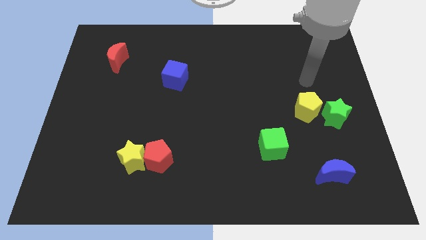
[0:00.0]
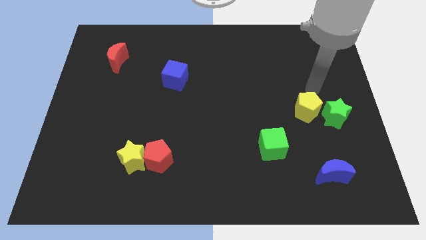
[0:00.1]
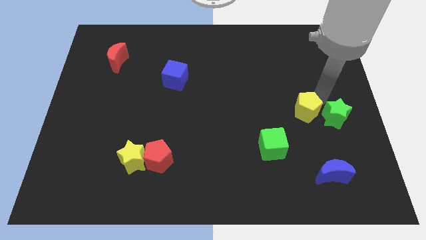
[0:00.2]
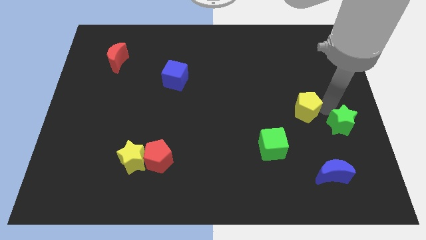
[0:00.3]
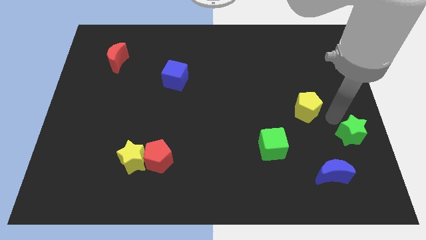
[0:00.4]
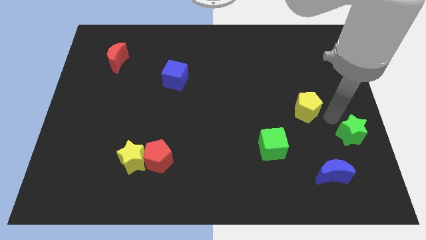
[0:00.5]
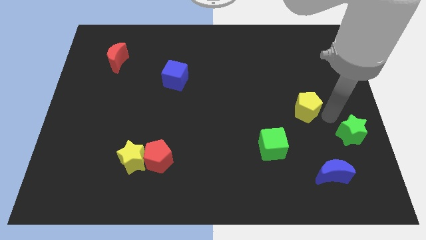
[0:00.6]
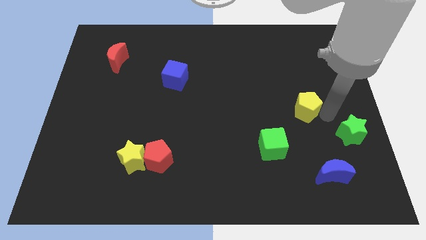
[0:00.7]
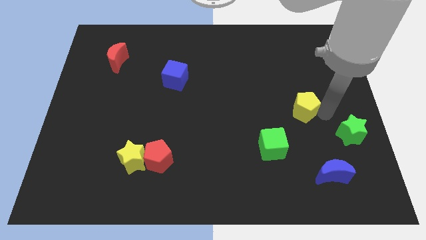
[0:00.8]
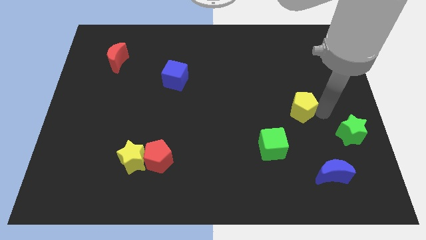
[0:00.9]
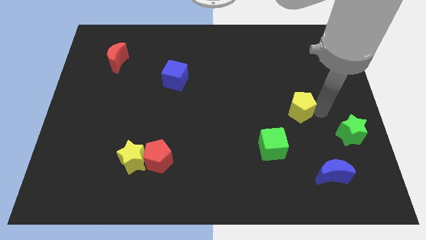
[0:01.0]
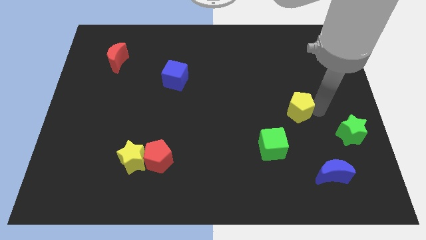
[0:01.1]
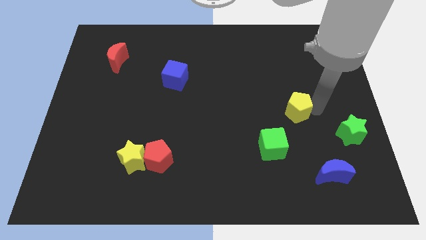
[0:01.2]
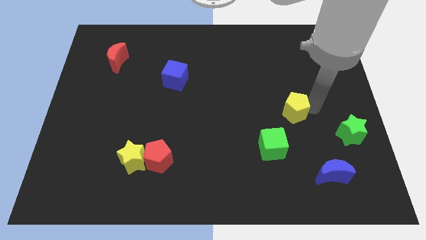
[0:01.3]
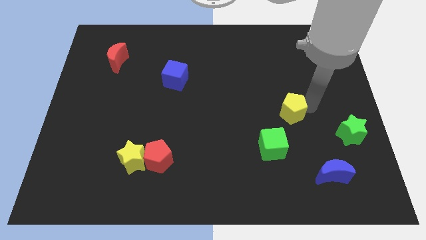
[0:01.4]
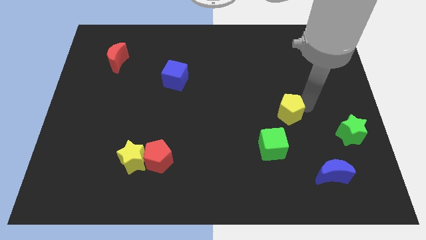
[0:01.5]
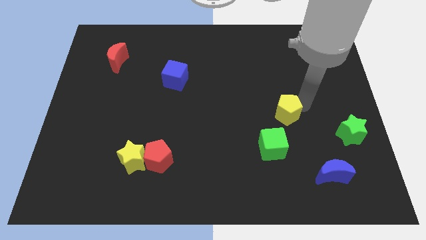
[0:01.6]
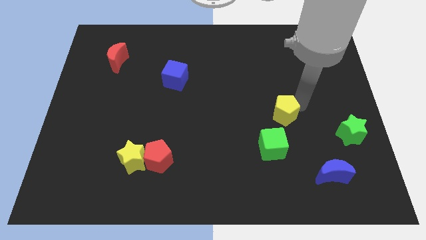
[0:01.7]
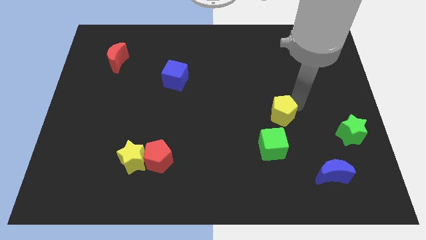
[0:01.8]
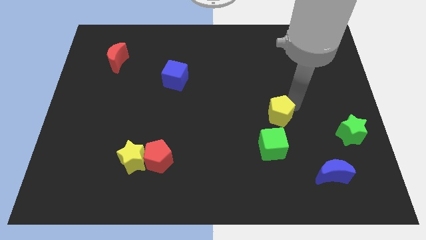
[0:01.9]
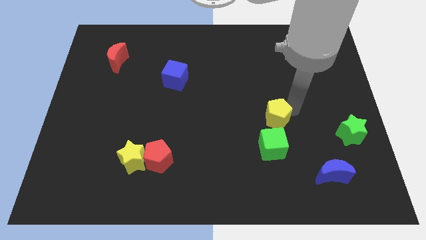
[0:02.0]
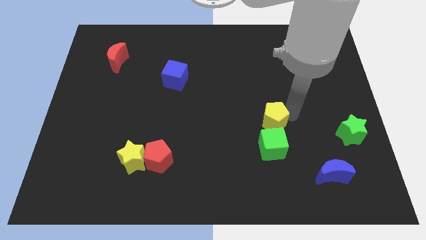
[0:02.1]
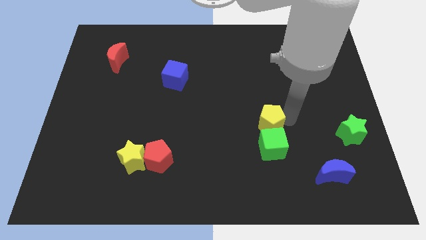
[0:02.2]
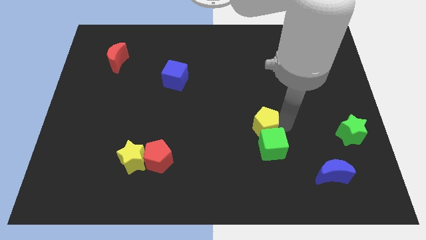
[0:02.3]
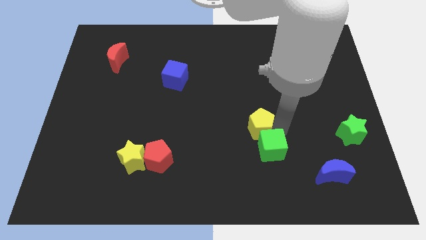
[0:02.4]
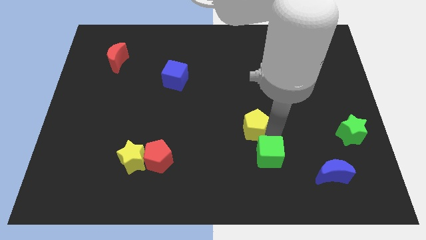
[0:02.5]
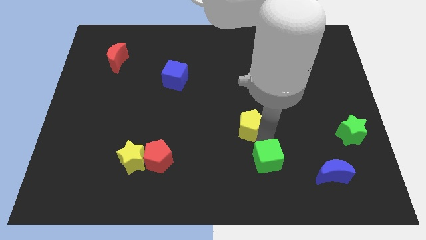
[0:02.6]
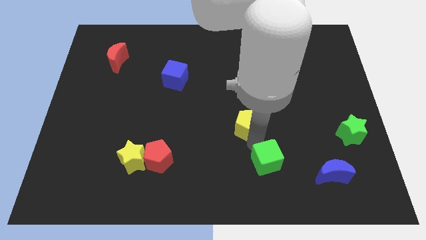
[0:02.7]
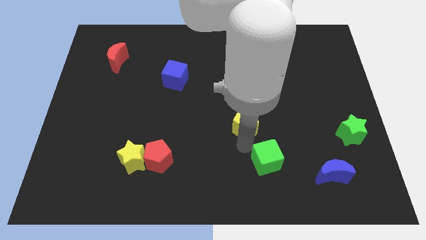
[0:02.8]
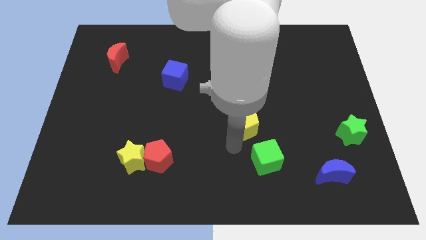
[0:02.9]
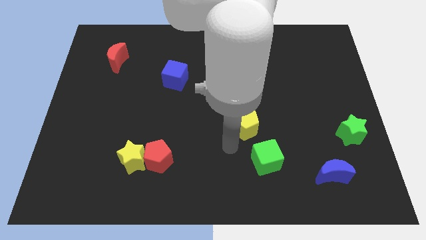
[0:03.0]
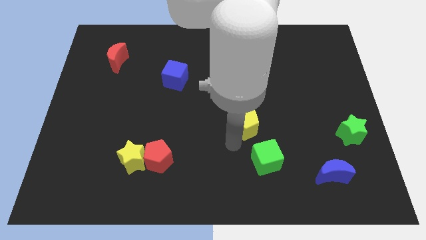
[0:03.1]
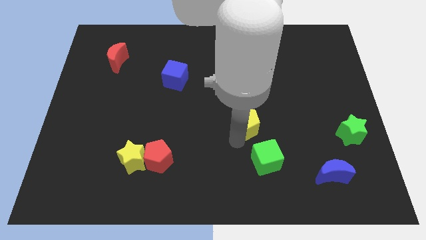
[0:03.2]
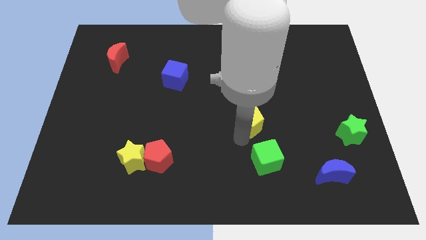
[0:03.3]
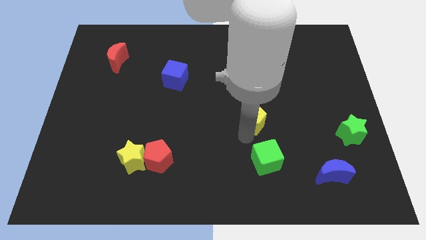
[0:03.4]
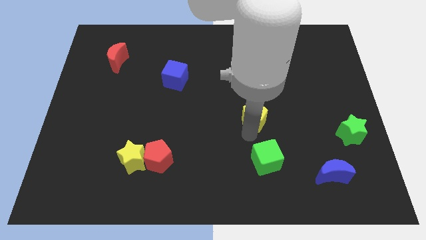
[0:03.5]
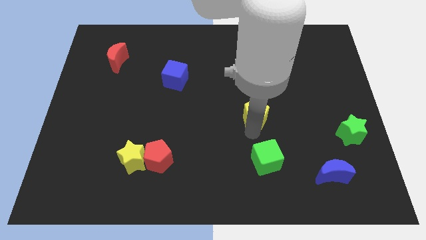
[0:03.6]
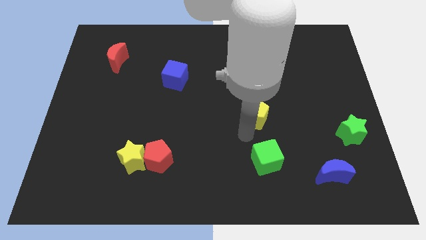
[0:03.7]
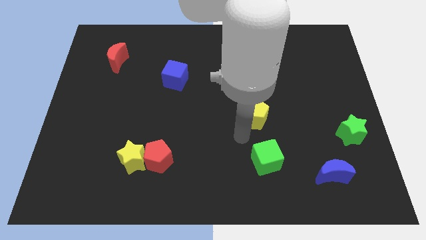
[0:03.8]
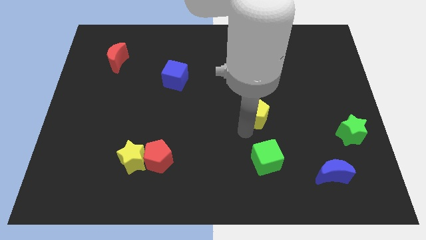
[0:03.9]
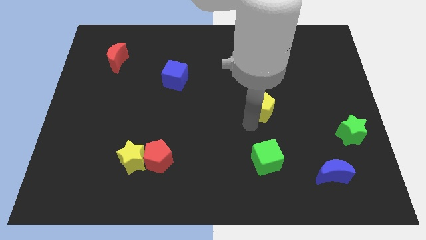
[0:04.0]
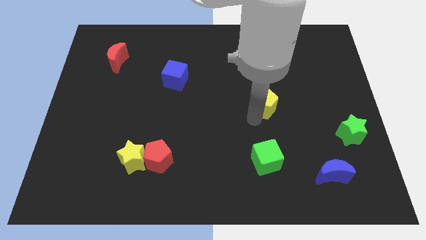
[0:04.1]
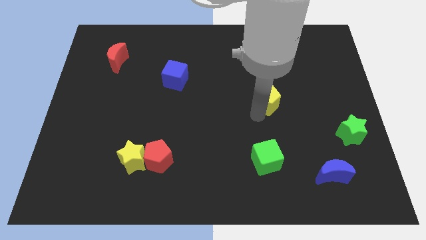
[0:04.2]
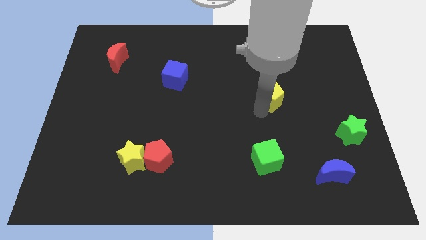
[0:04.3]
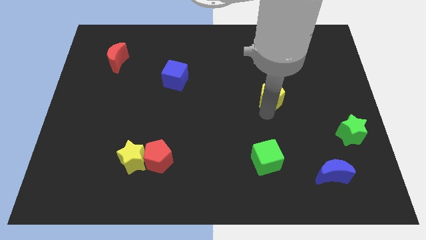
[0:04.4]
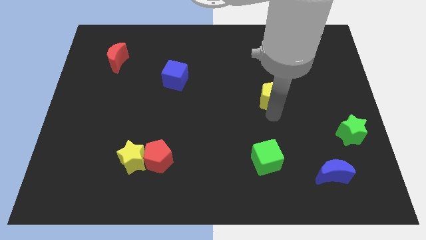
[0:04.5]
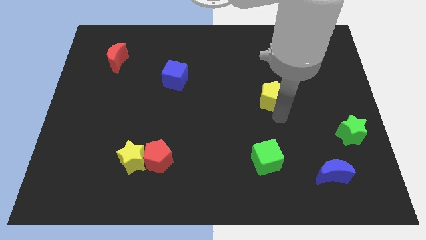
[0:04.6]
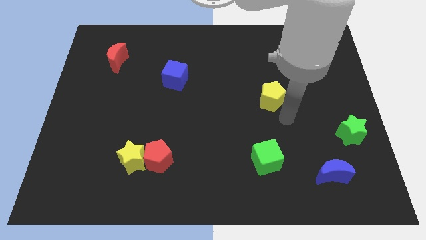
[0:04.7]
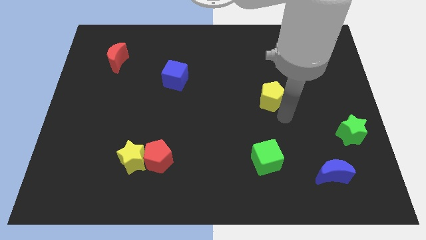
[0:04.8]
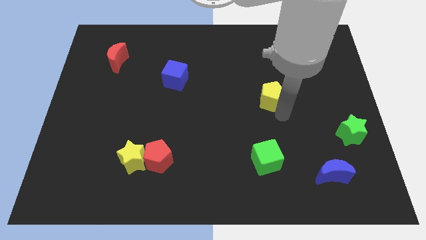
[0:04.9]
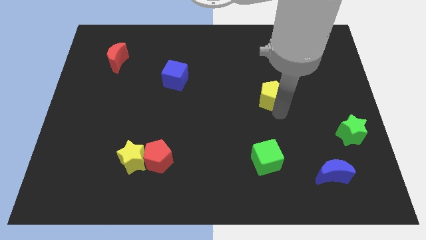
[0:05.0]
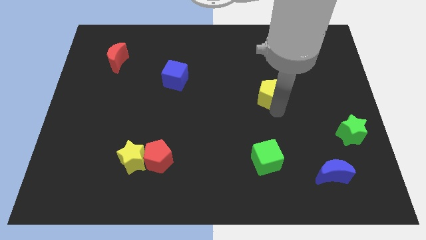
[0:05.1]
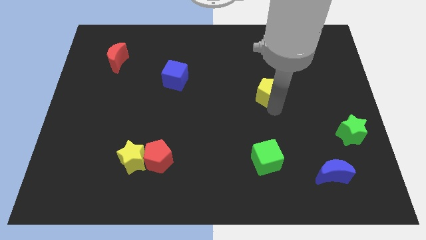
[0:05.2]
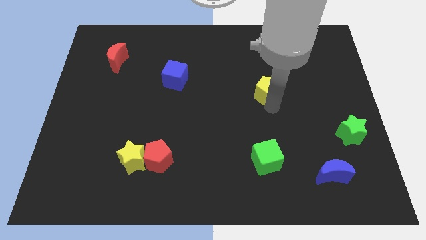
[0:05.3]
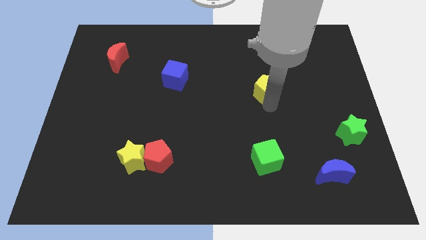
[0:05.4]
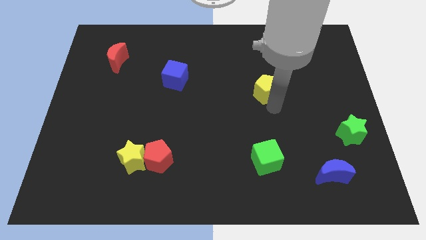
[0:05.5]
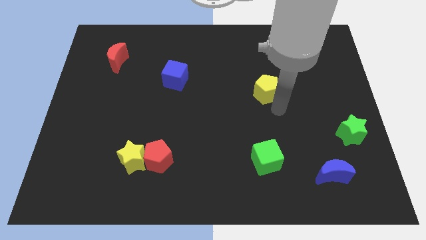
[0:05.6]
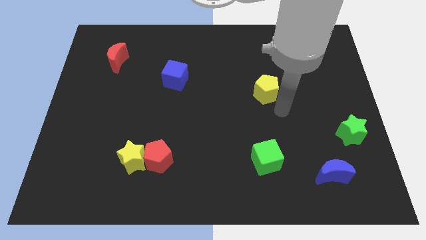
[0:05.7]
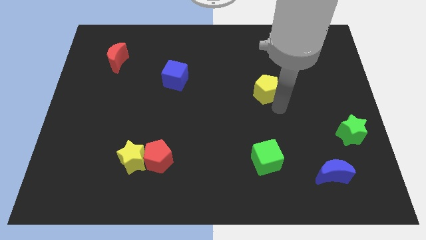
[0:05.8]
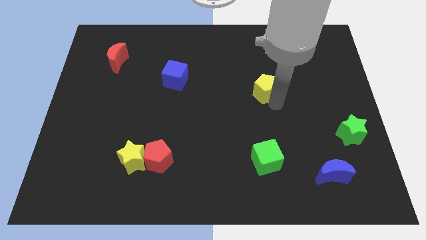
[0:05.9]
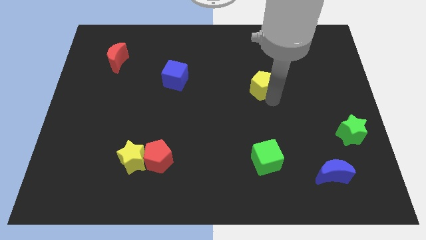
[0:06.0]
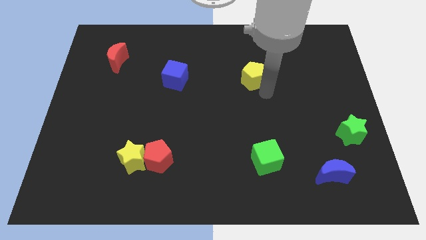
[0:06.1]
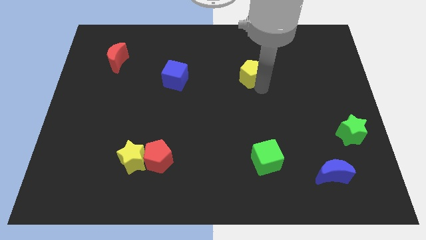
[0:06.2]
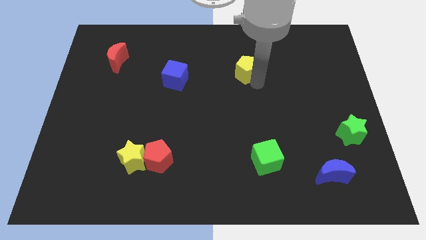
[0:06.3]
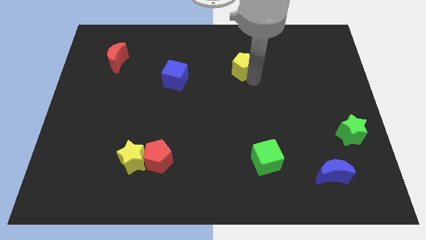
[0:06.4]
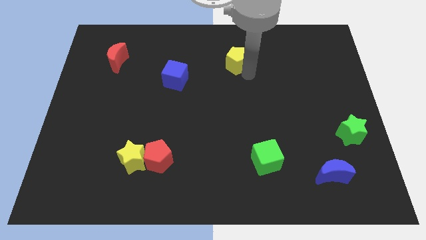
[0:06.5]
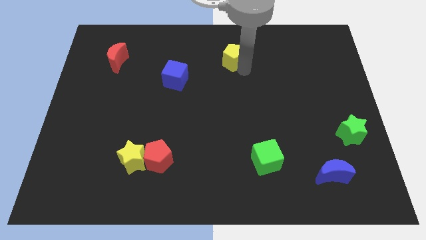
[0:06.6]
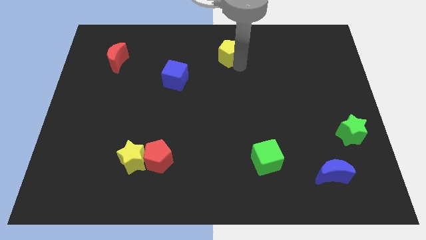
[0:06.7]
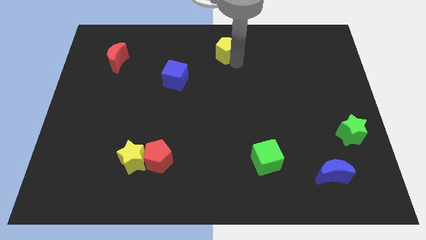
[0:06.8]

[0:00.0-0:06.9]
slide the yellow pentagon to the top
